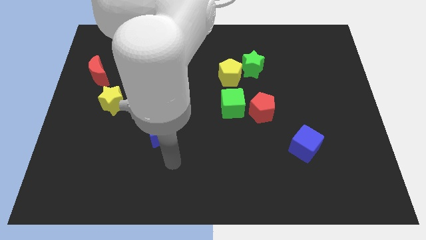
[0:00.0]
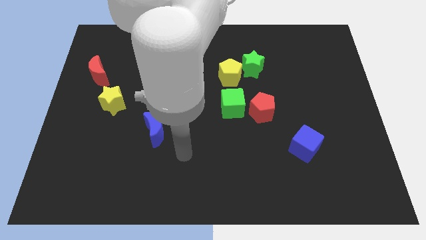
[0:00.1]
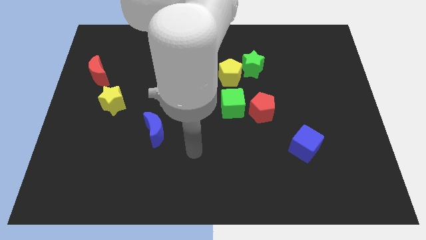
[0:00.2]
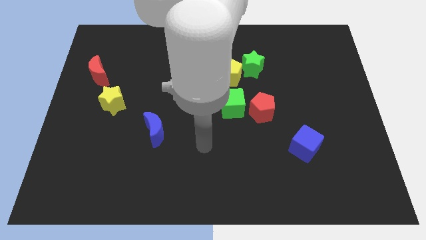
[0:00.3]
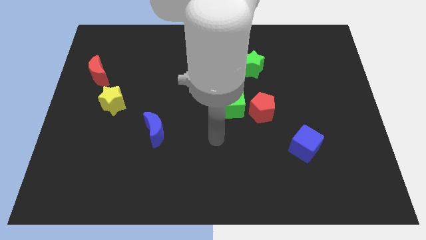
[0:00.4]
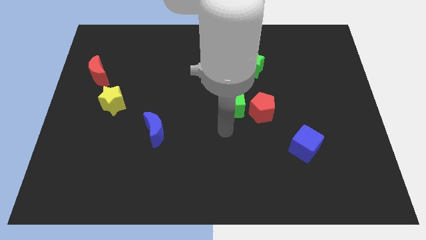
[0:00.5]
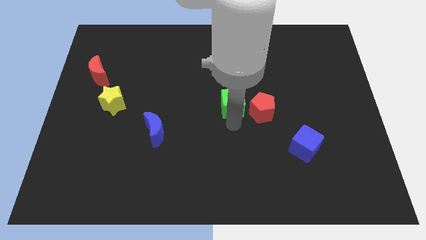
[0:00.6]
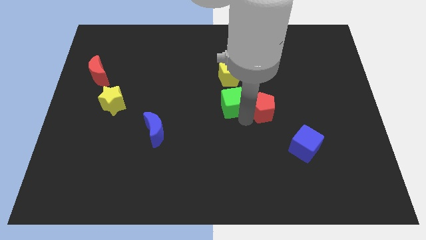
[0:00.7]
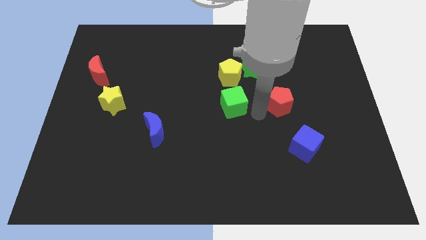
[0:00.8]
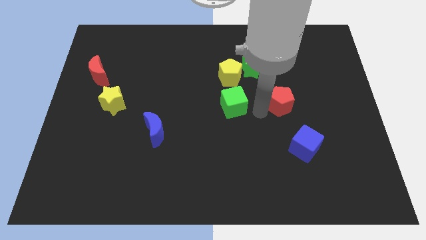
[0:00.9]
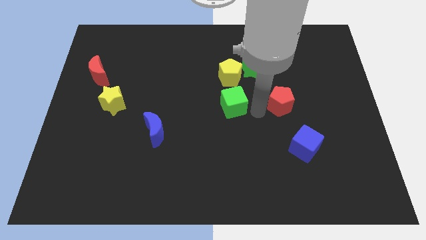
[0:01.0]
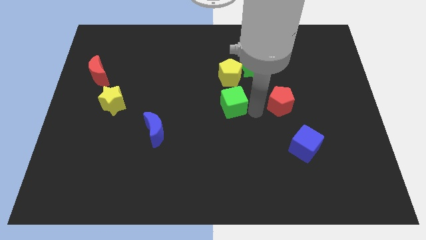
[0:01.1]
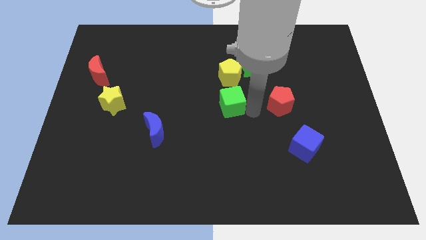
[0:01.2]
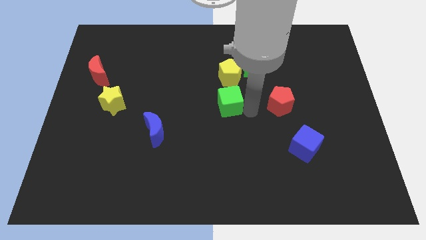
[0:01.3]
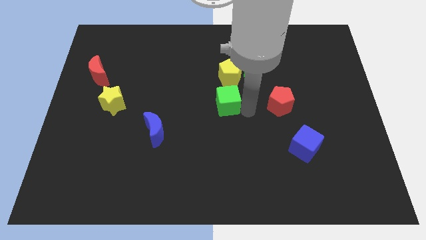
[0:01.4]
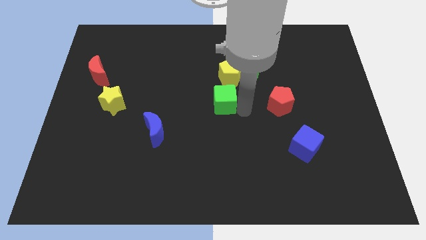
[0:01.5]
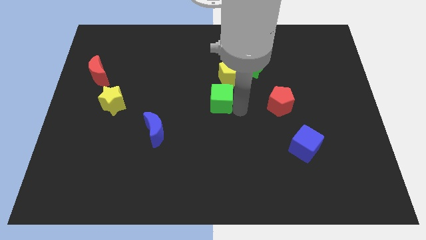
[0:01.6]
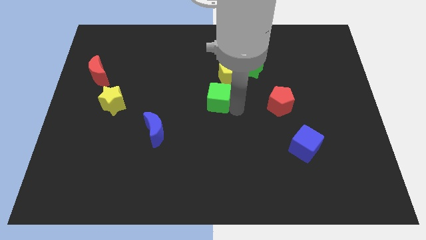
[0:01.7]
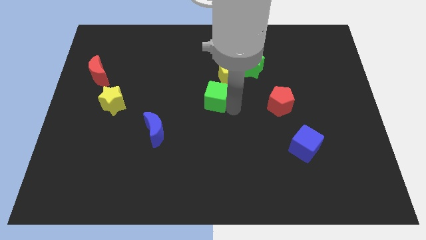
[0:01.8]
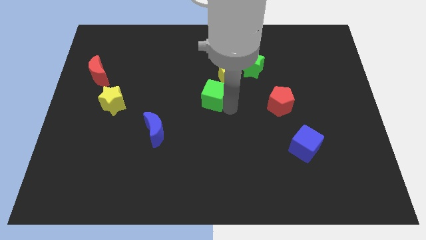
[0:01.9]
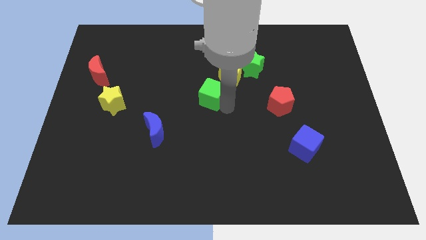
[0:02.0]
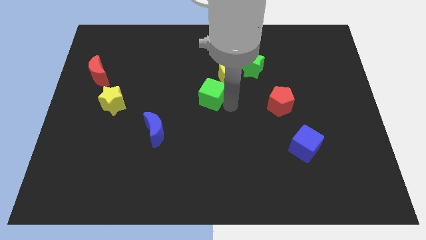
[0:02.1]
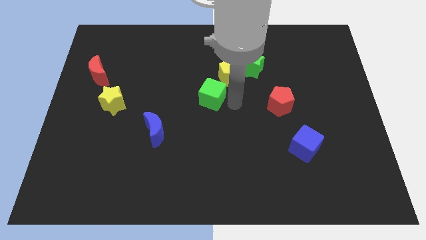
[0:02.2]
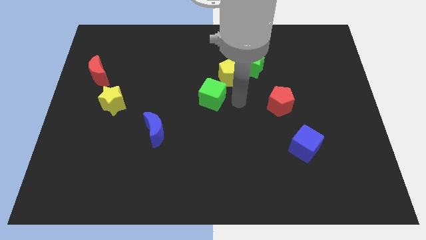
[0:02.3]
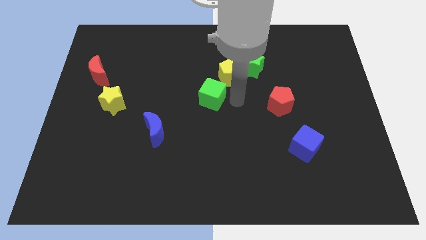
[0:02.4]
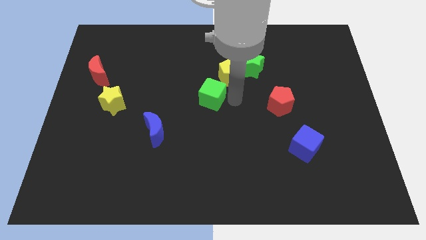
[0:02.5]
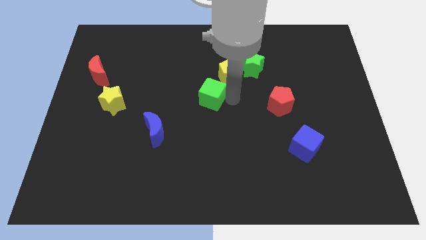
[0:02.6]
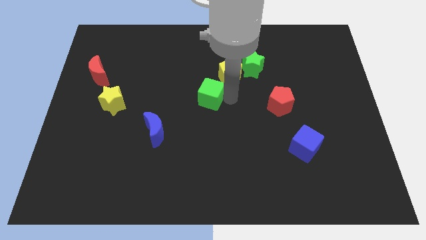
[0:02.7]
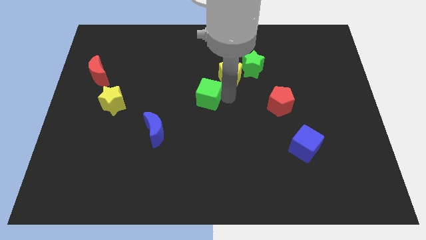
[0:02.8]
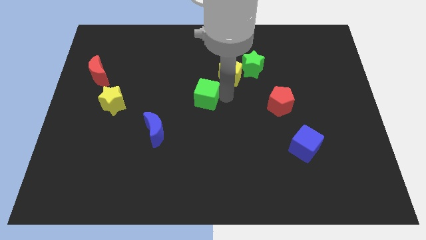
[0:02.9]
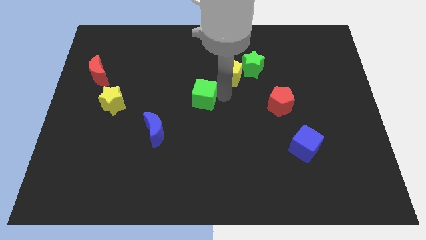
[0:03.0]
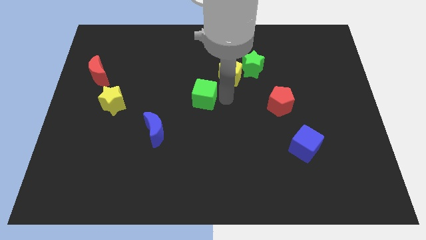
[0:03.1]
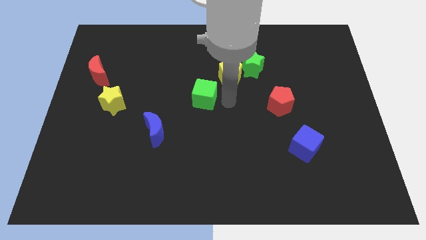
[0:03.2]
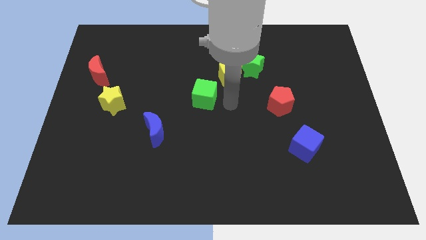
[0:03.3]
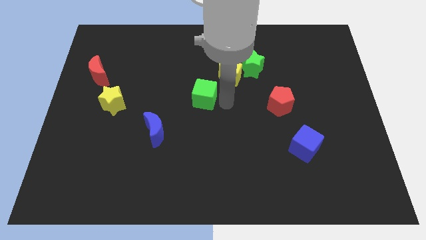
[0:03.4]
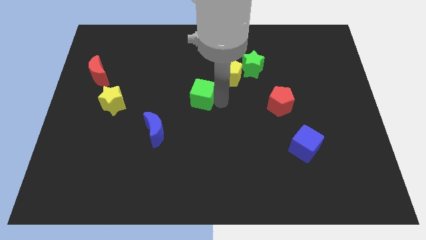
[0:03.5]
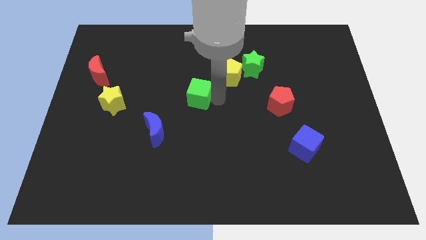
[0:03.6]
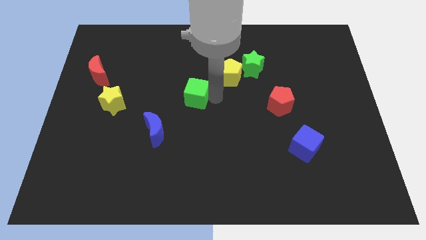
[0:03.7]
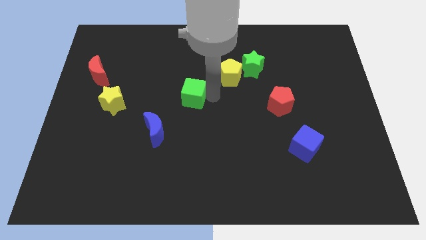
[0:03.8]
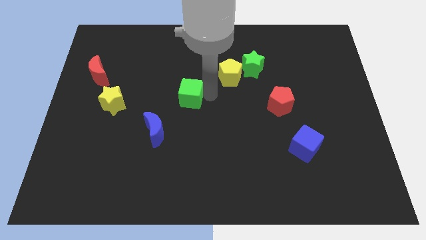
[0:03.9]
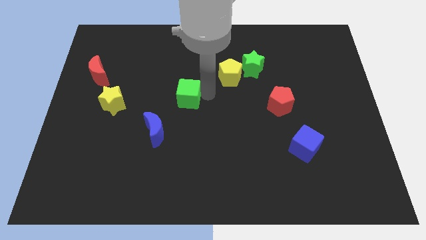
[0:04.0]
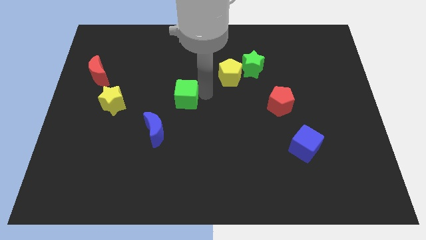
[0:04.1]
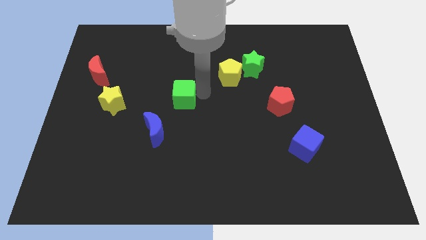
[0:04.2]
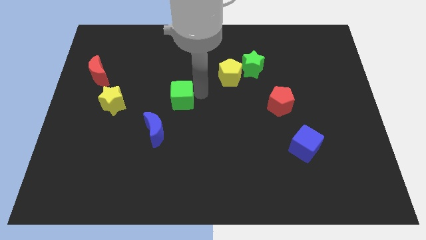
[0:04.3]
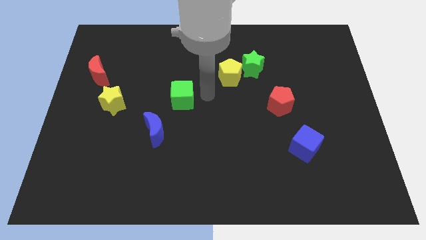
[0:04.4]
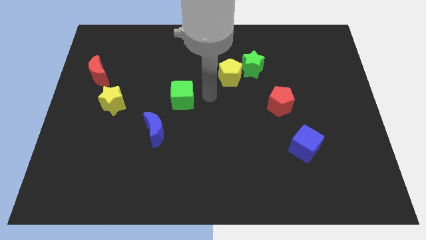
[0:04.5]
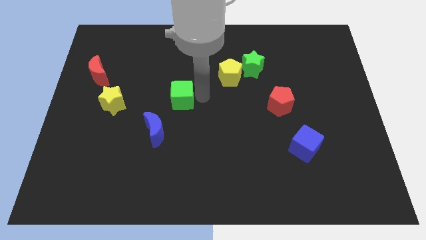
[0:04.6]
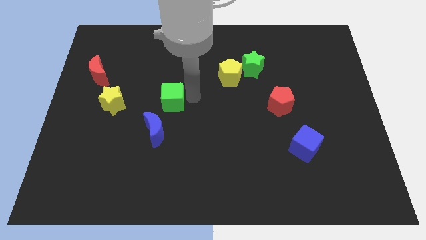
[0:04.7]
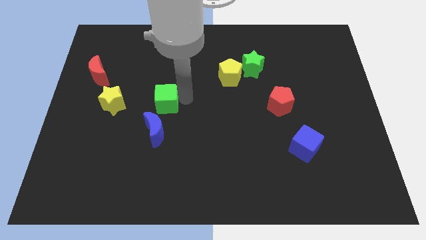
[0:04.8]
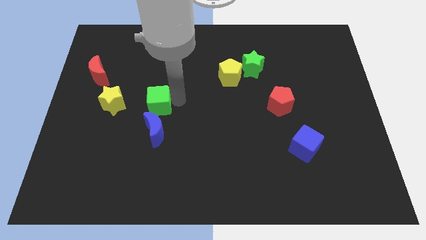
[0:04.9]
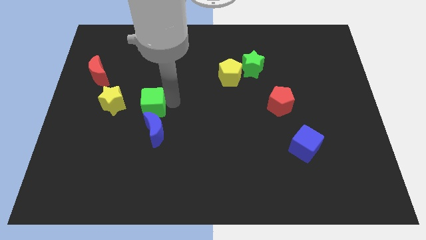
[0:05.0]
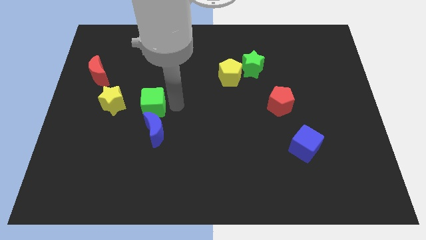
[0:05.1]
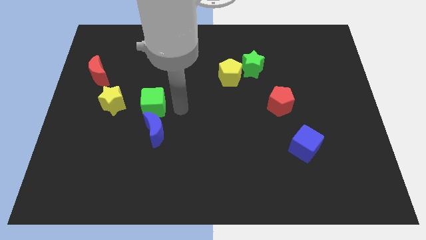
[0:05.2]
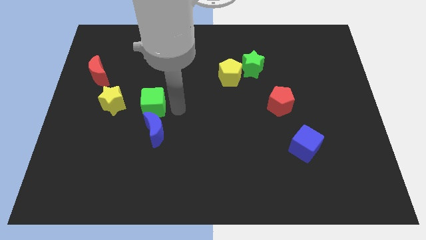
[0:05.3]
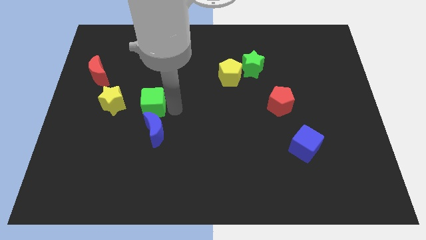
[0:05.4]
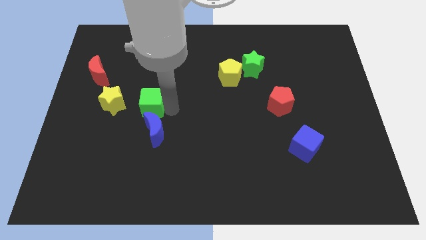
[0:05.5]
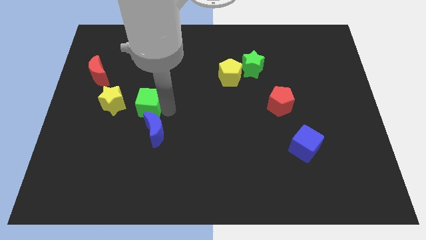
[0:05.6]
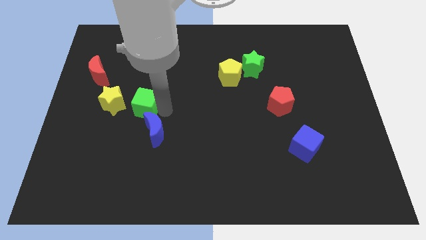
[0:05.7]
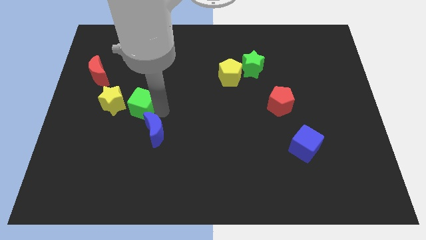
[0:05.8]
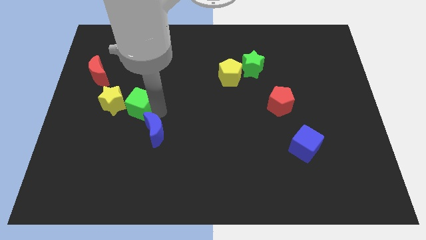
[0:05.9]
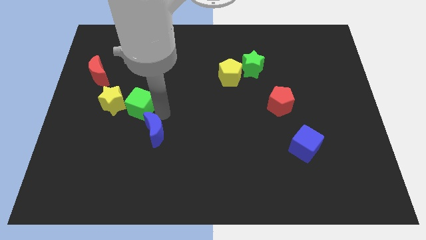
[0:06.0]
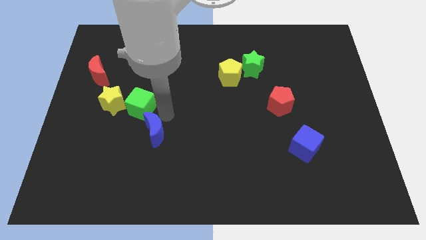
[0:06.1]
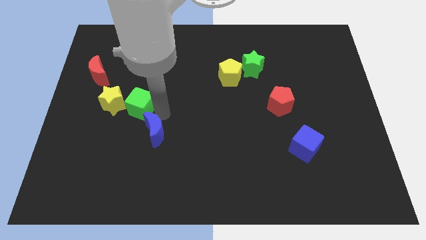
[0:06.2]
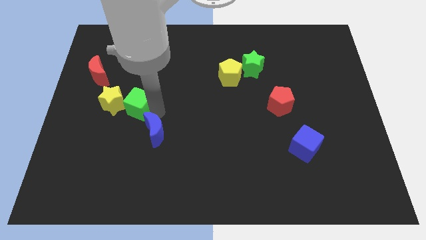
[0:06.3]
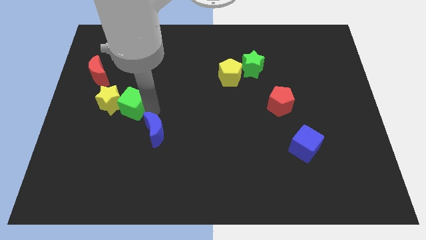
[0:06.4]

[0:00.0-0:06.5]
slide the green cube close to the yellow star

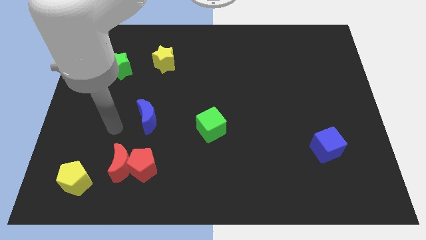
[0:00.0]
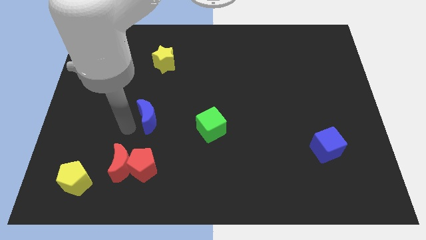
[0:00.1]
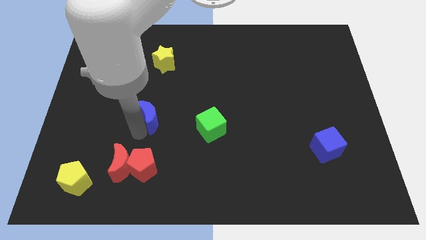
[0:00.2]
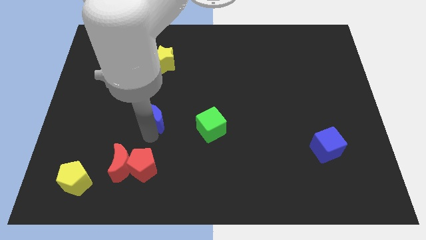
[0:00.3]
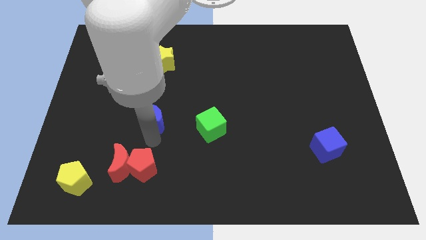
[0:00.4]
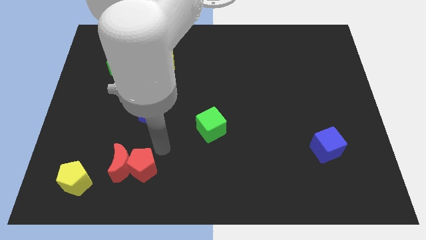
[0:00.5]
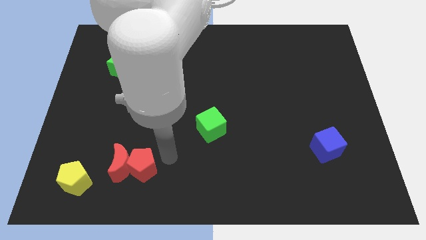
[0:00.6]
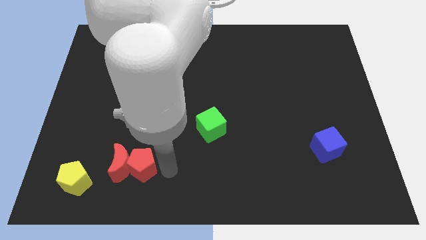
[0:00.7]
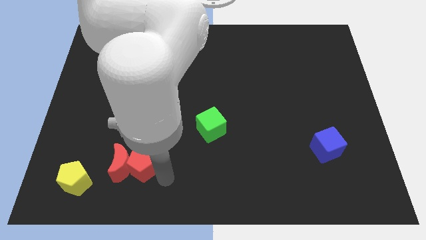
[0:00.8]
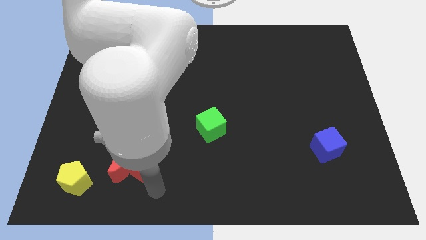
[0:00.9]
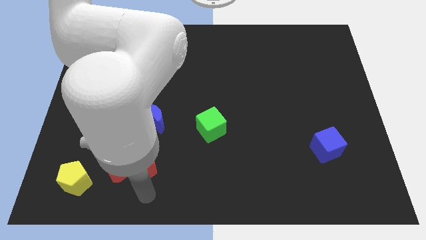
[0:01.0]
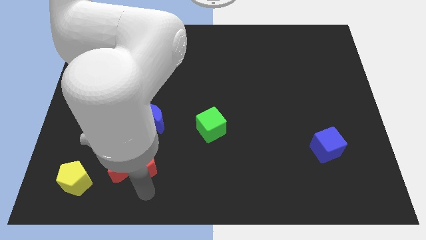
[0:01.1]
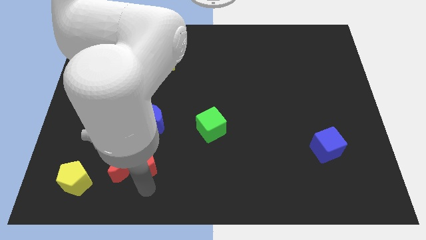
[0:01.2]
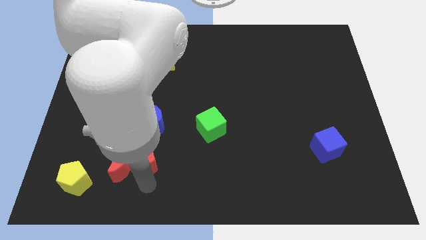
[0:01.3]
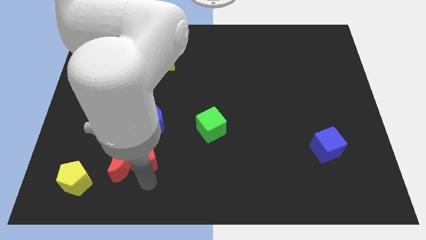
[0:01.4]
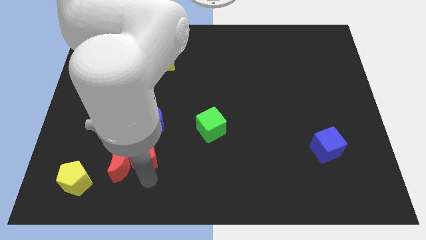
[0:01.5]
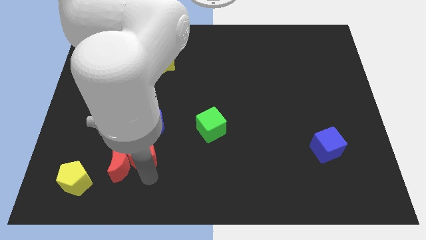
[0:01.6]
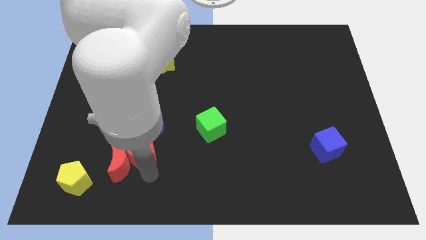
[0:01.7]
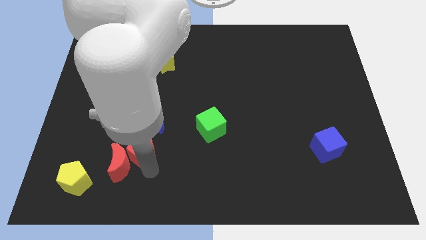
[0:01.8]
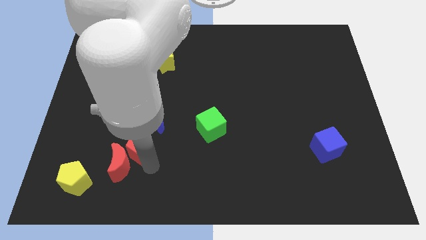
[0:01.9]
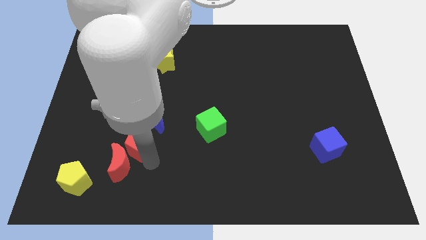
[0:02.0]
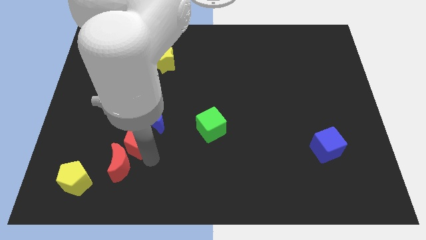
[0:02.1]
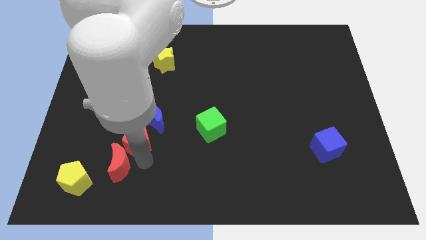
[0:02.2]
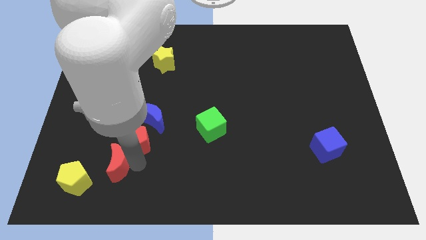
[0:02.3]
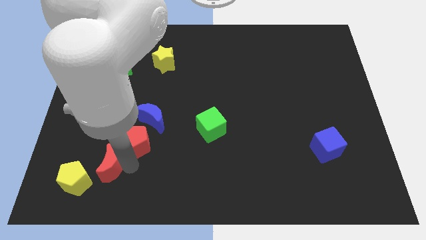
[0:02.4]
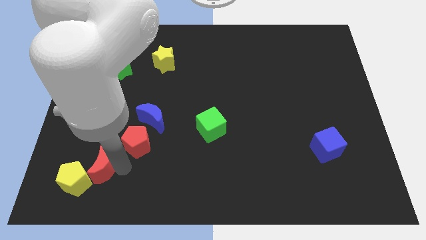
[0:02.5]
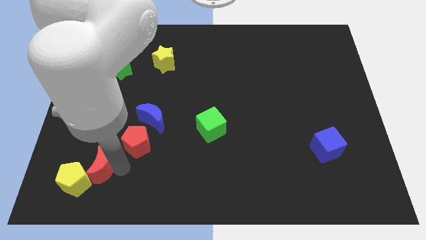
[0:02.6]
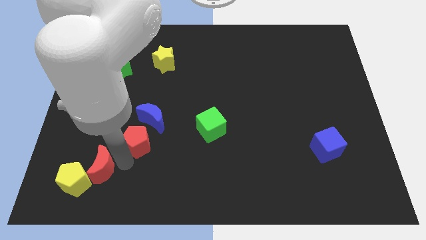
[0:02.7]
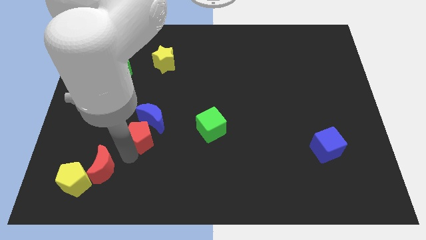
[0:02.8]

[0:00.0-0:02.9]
move the red pentagon next to the blue moon
